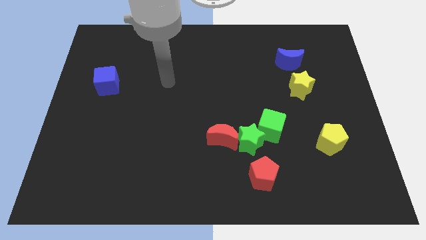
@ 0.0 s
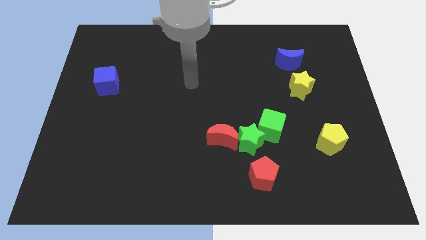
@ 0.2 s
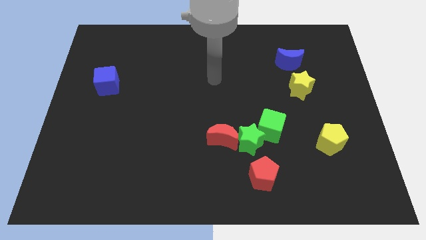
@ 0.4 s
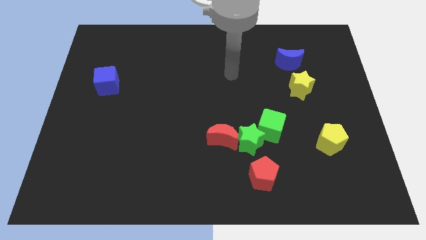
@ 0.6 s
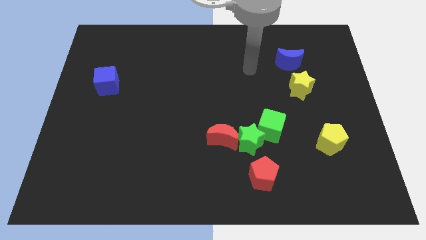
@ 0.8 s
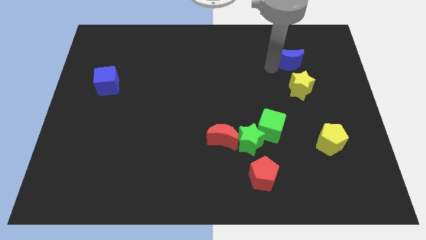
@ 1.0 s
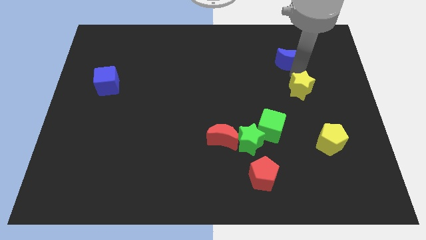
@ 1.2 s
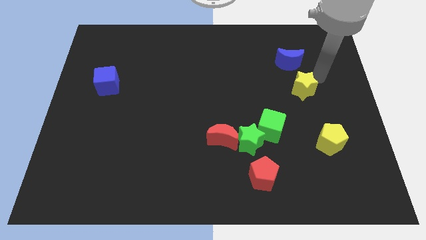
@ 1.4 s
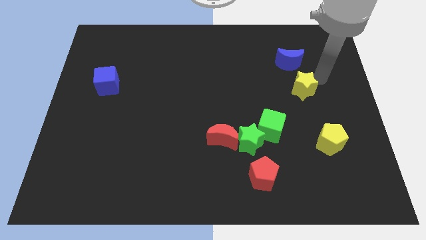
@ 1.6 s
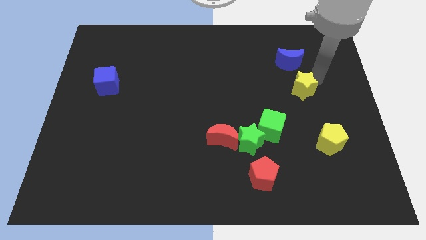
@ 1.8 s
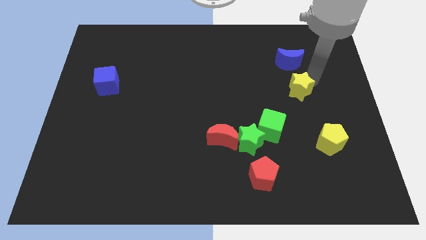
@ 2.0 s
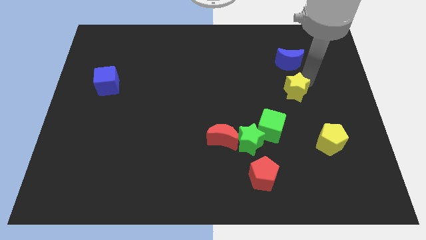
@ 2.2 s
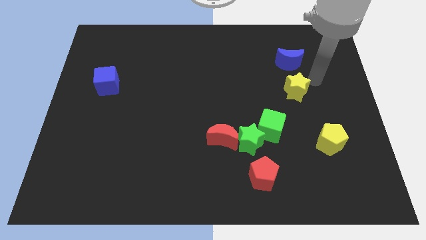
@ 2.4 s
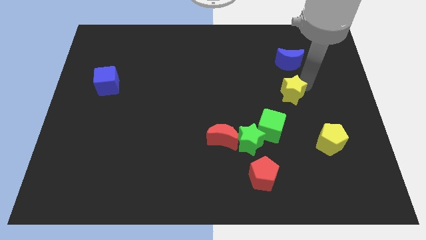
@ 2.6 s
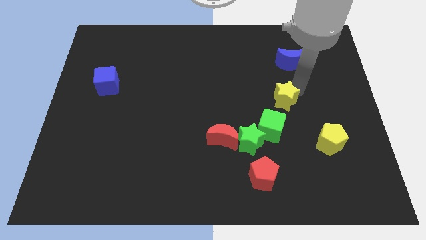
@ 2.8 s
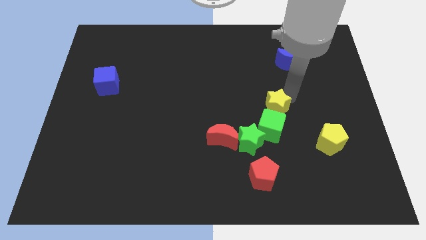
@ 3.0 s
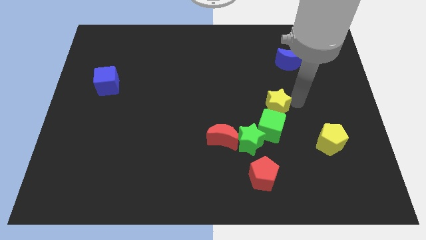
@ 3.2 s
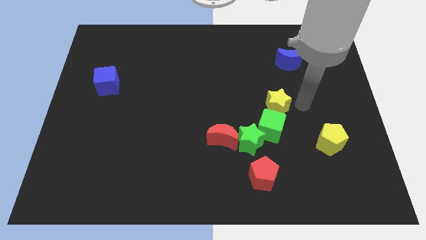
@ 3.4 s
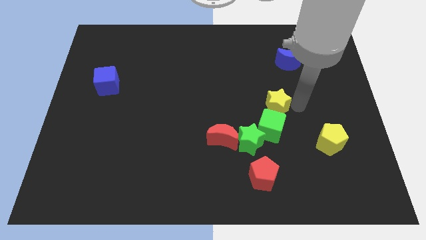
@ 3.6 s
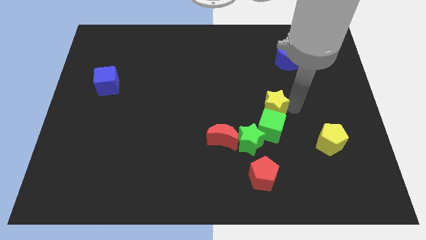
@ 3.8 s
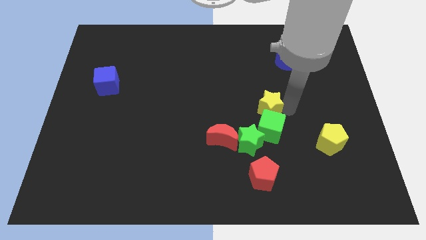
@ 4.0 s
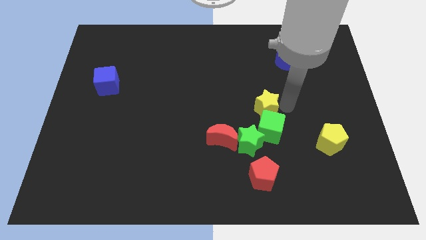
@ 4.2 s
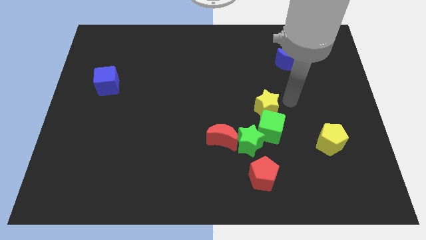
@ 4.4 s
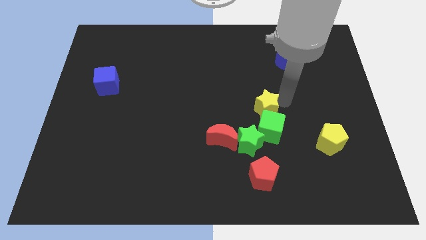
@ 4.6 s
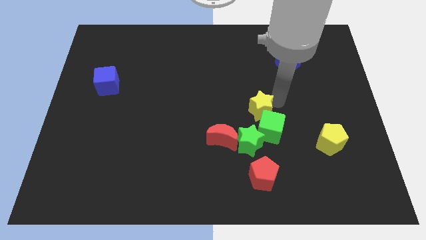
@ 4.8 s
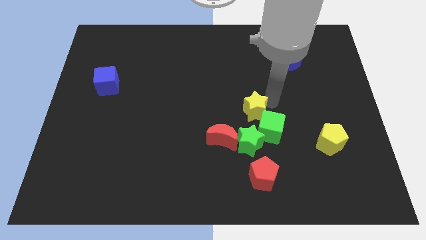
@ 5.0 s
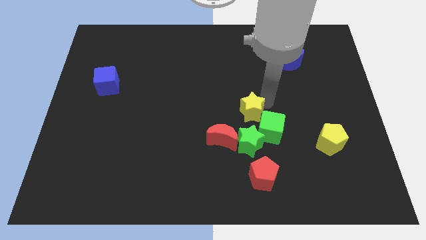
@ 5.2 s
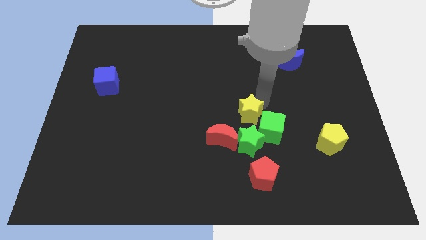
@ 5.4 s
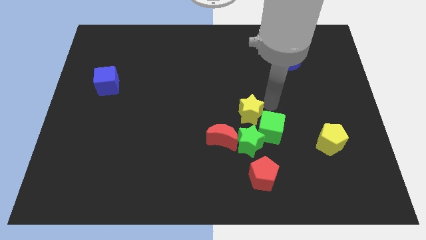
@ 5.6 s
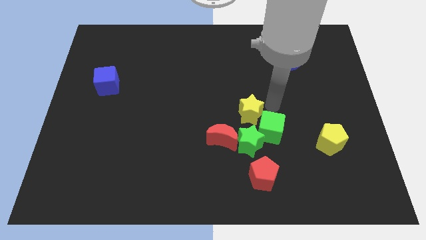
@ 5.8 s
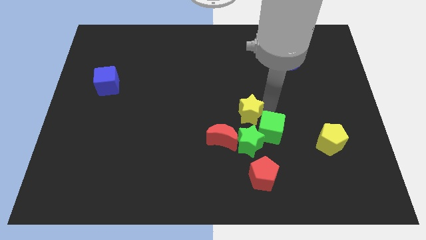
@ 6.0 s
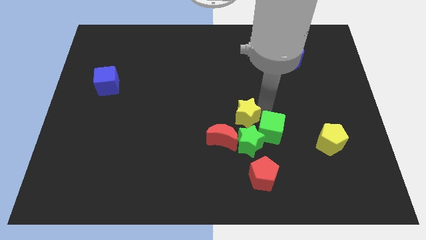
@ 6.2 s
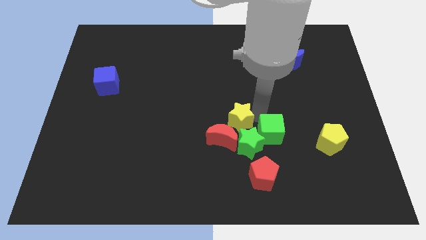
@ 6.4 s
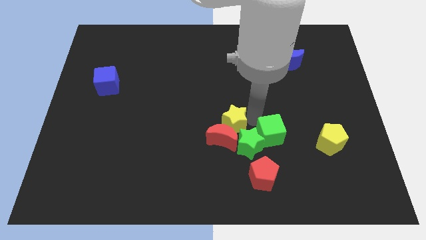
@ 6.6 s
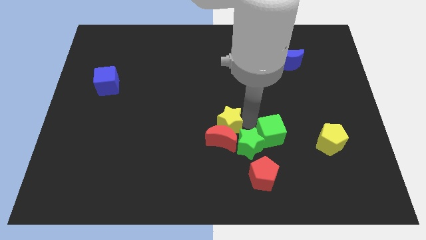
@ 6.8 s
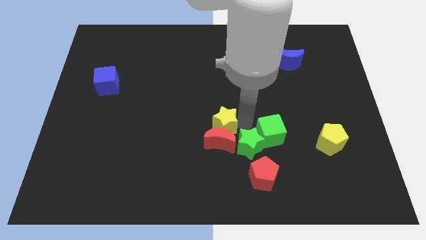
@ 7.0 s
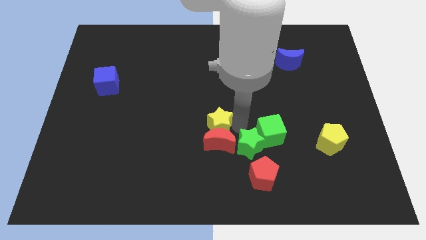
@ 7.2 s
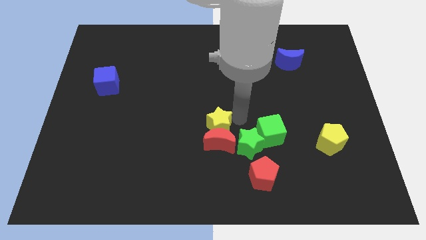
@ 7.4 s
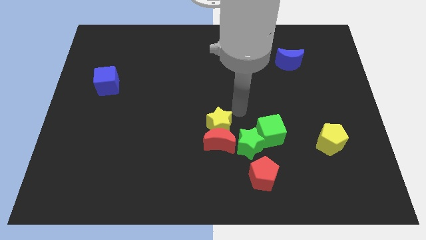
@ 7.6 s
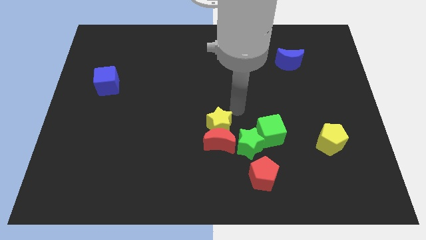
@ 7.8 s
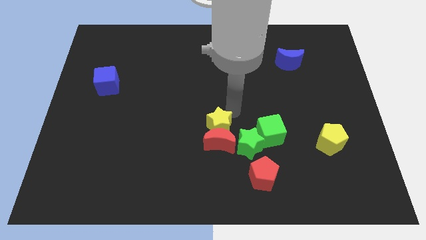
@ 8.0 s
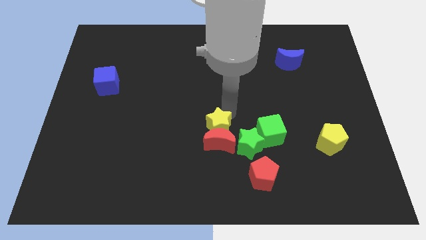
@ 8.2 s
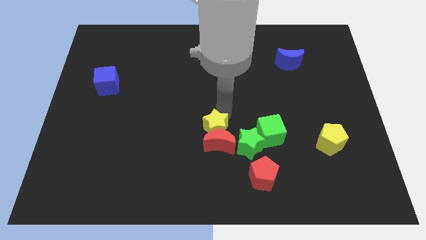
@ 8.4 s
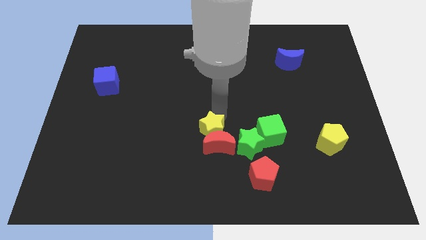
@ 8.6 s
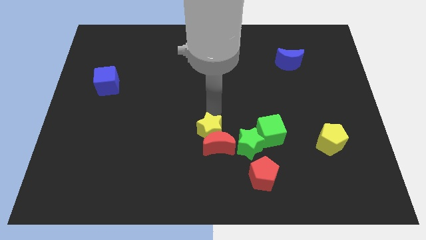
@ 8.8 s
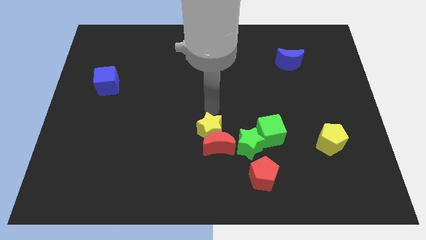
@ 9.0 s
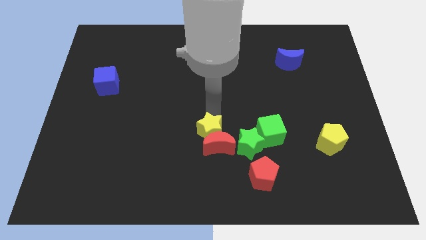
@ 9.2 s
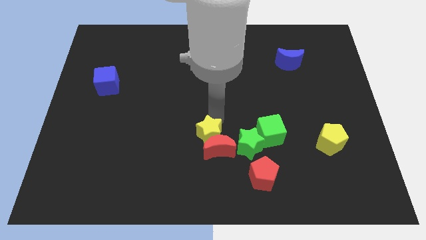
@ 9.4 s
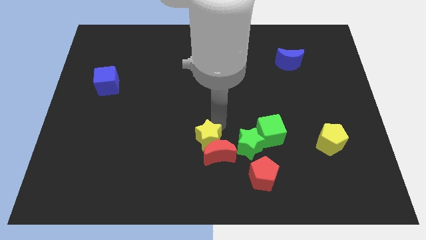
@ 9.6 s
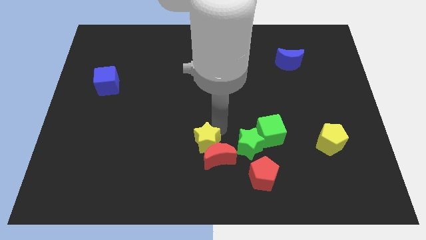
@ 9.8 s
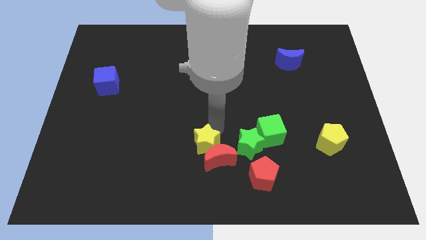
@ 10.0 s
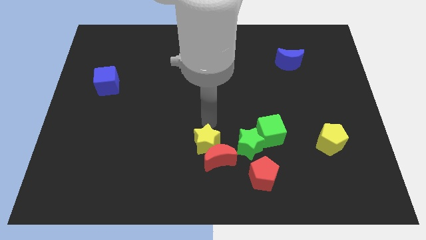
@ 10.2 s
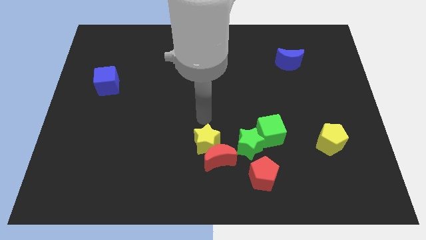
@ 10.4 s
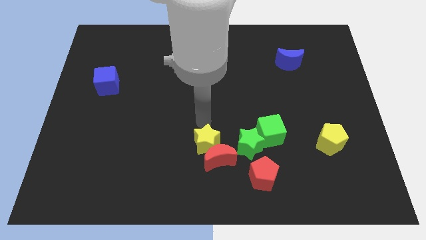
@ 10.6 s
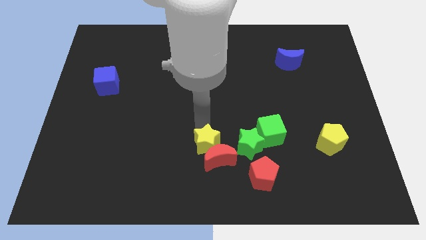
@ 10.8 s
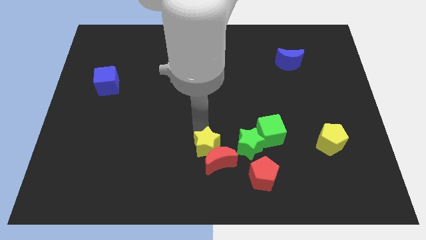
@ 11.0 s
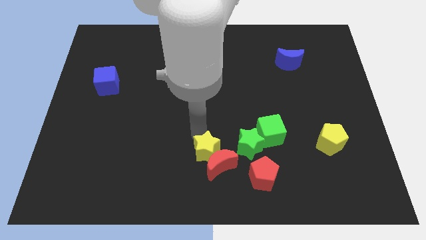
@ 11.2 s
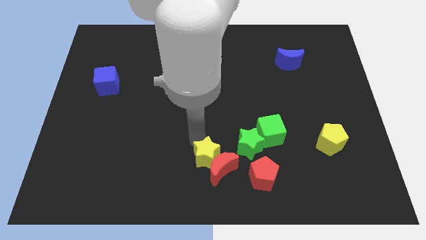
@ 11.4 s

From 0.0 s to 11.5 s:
put the yellow star to the bottom side
